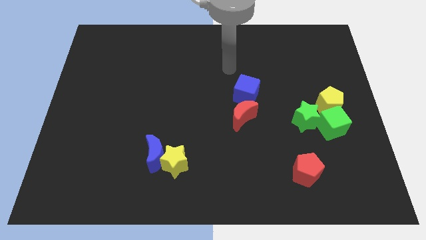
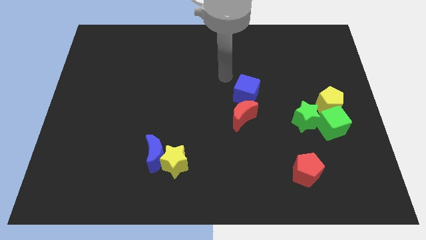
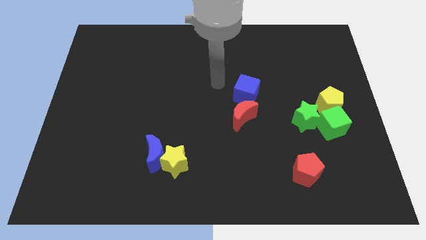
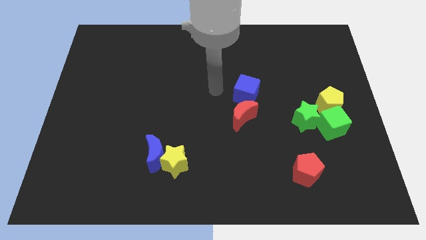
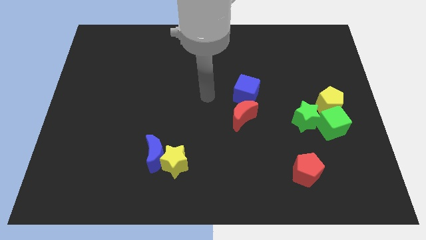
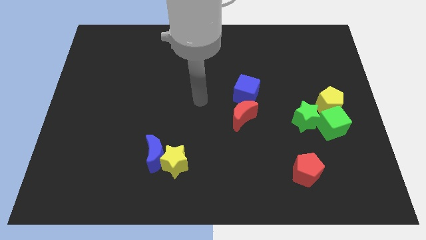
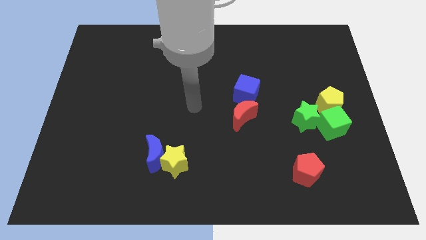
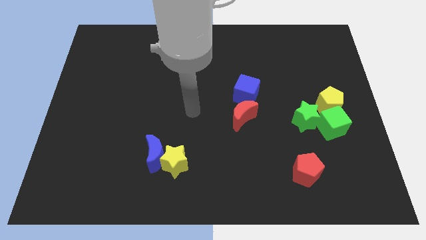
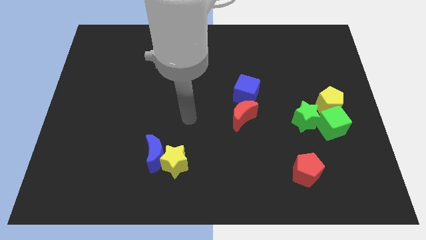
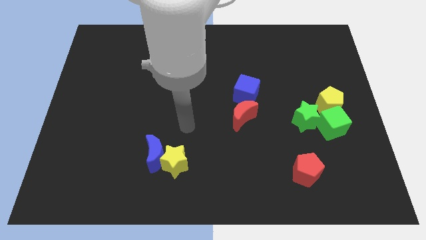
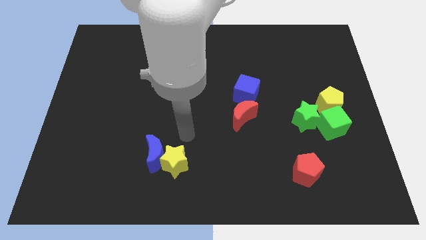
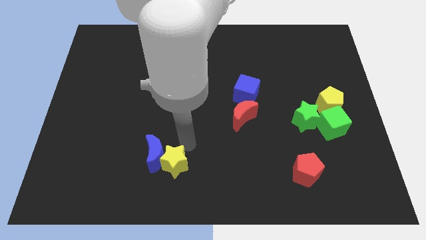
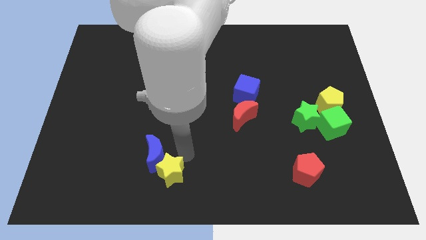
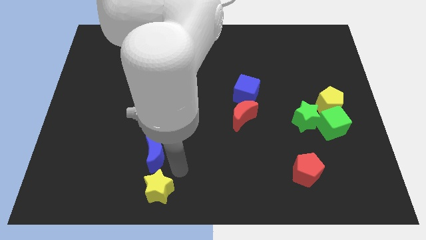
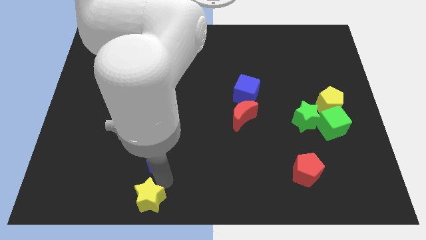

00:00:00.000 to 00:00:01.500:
pull the blue moon apart from the yellow star

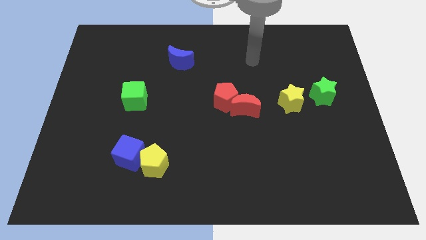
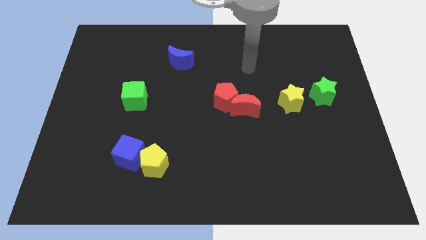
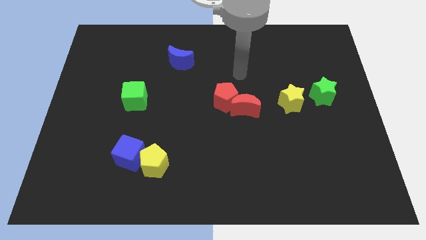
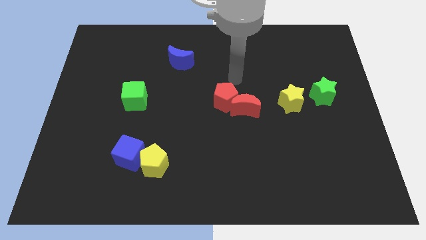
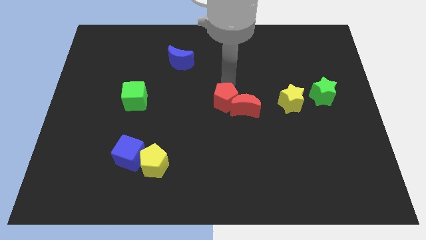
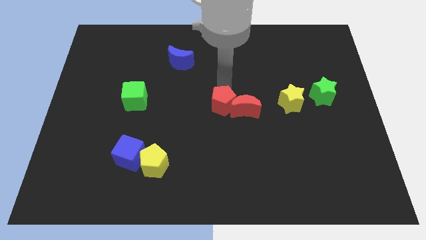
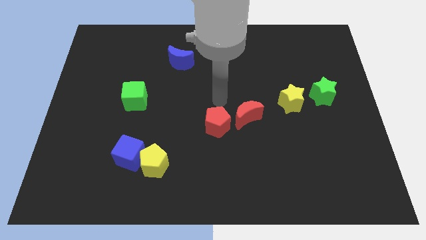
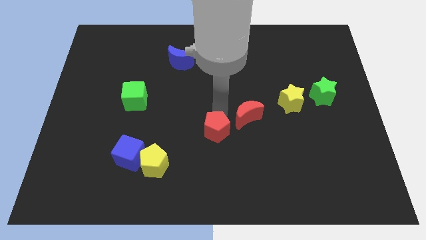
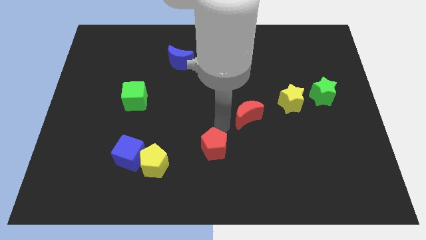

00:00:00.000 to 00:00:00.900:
move the red moon away from the red pentagon

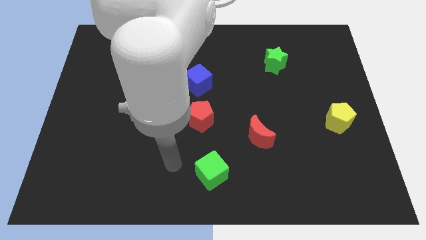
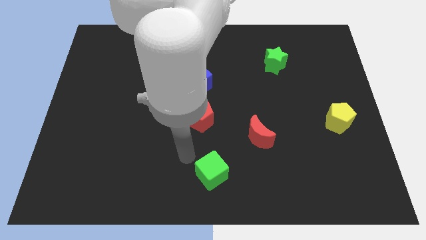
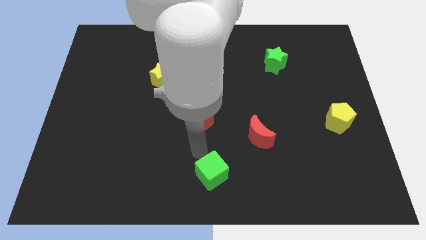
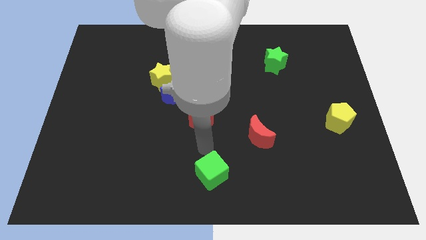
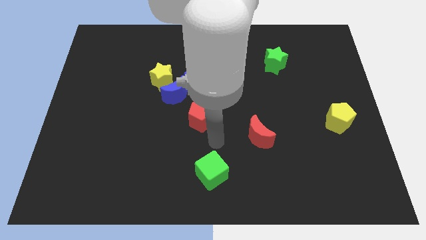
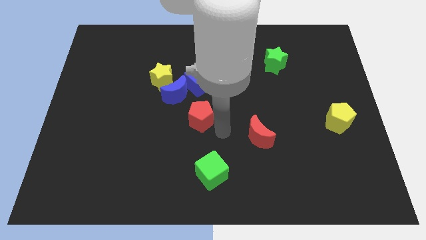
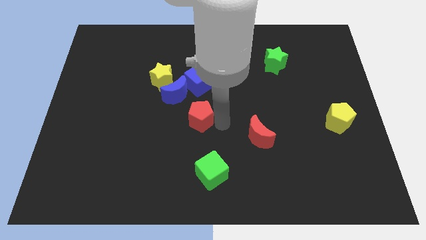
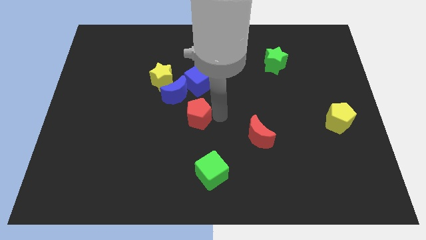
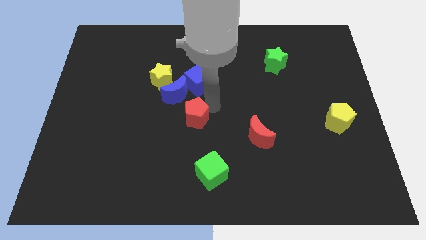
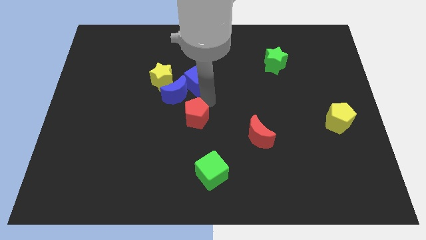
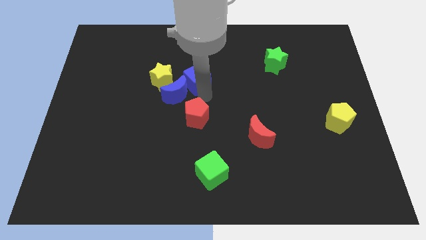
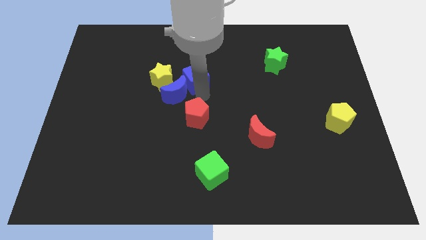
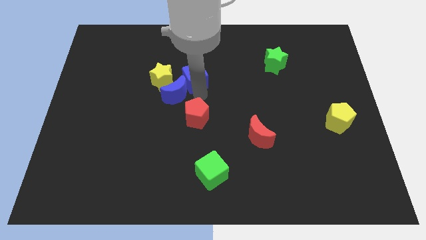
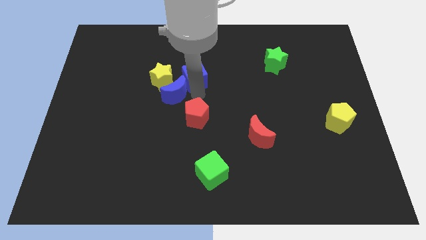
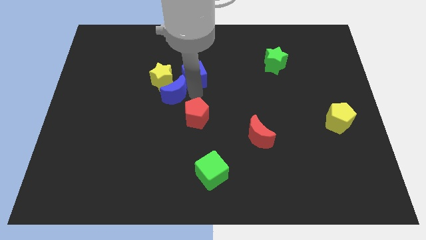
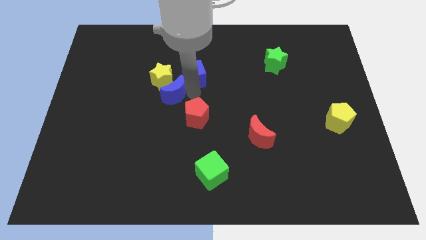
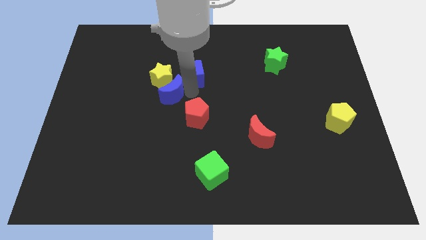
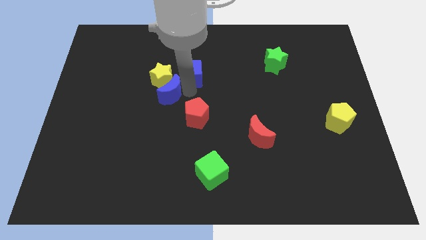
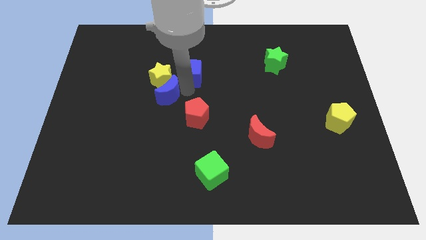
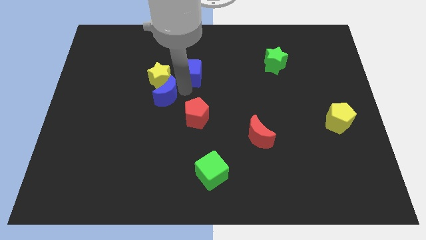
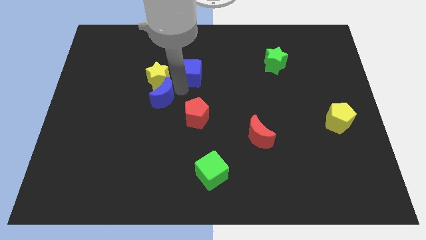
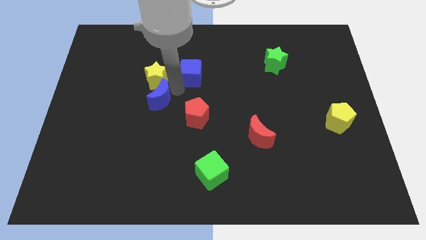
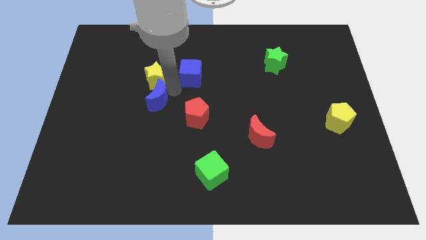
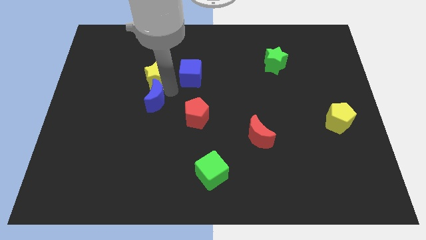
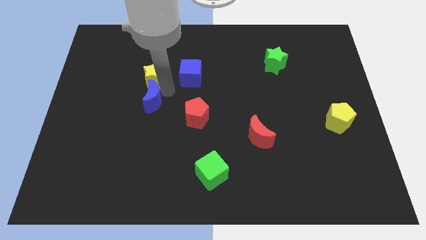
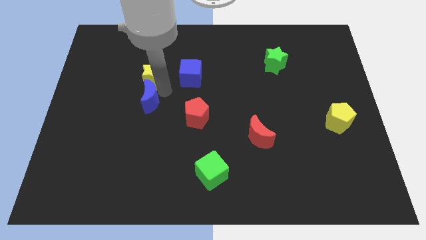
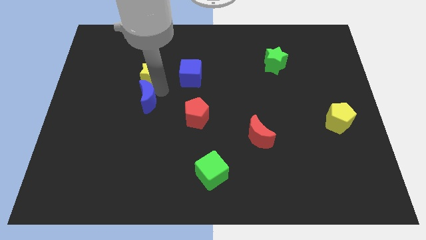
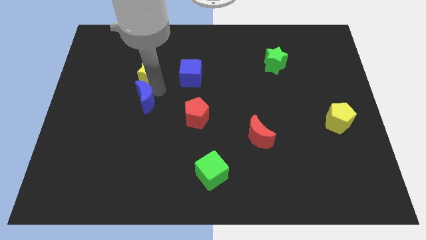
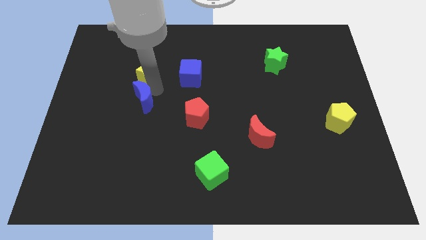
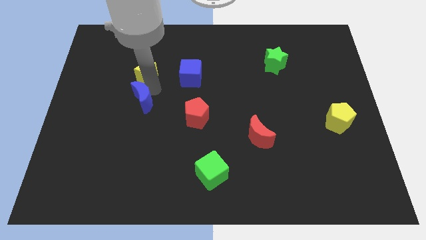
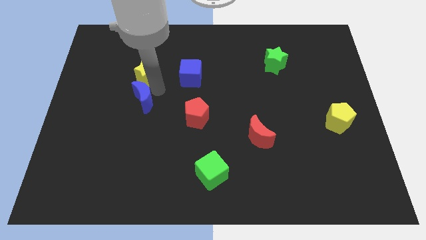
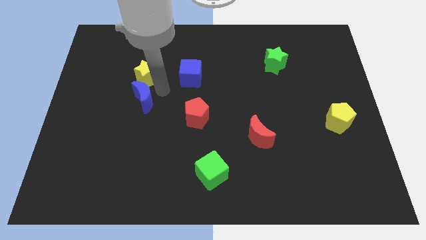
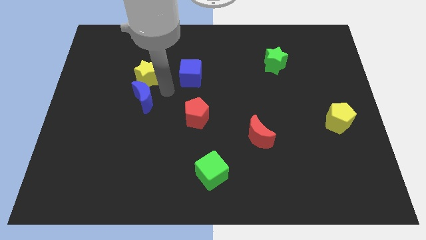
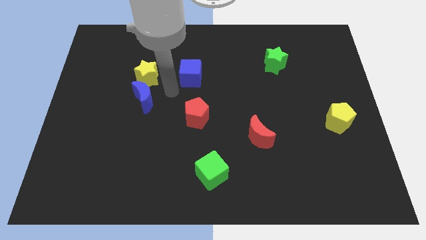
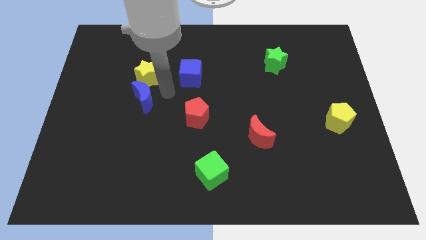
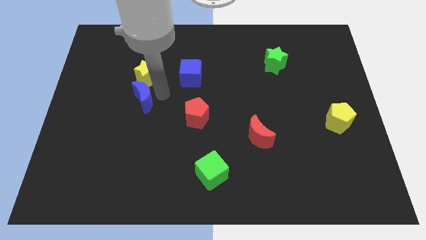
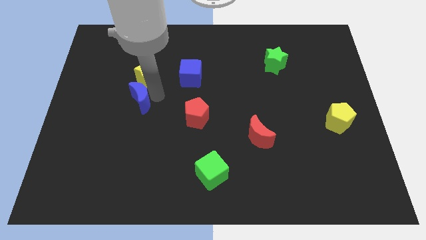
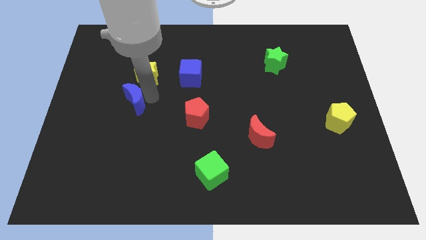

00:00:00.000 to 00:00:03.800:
move the blue moon away from the clump

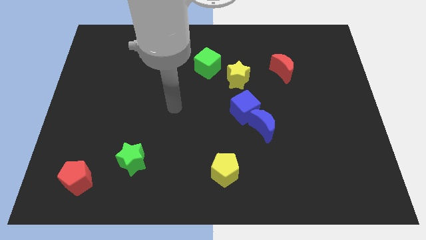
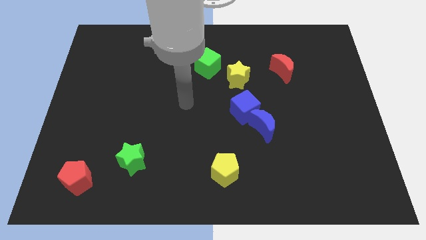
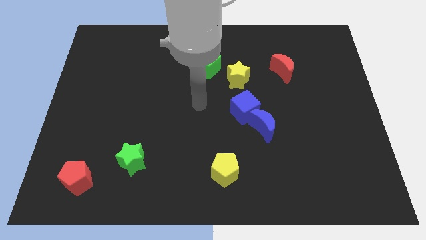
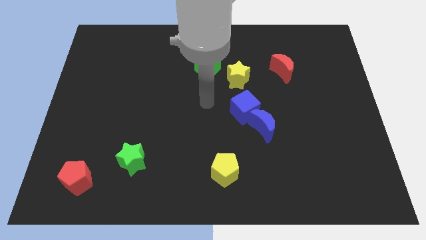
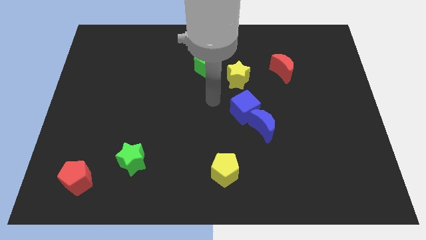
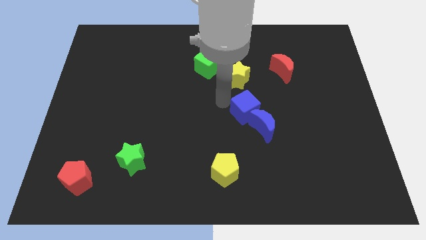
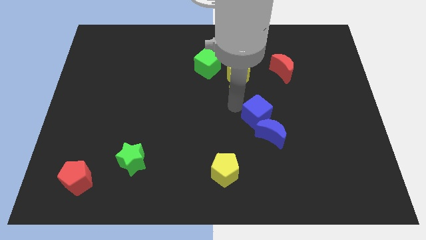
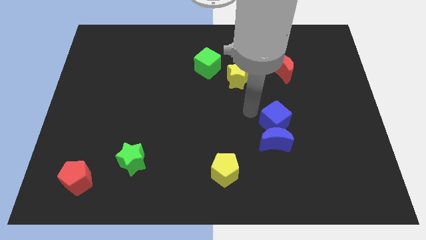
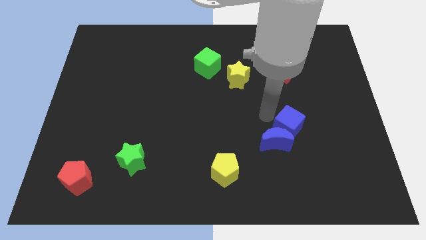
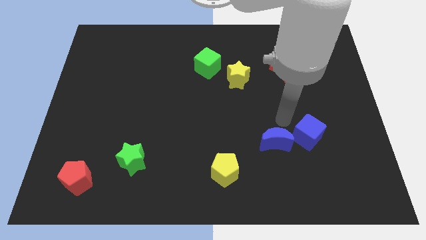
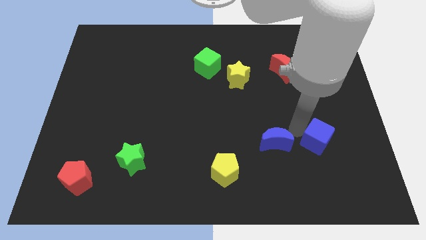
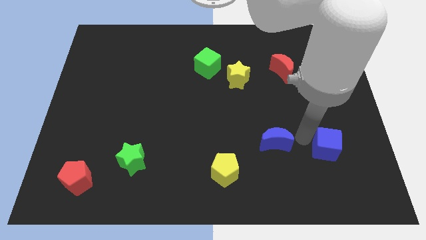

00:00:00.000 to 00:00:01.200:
pull the blue moon apart from the blue cube

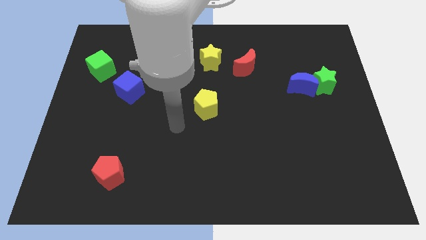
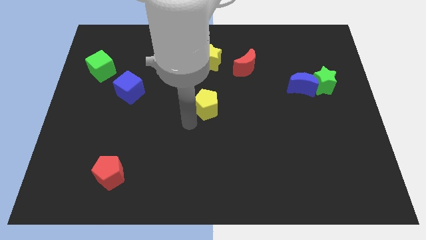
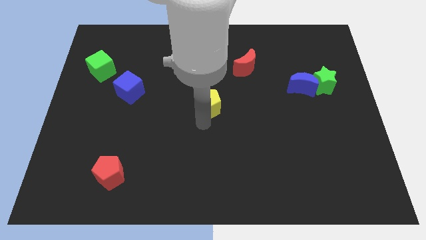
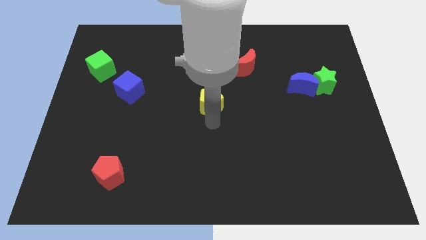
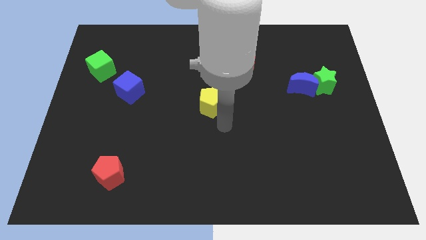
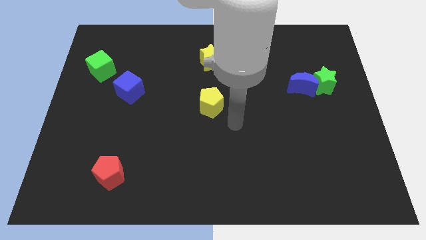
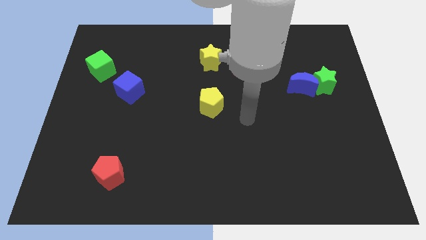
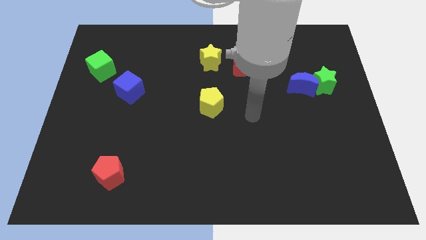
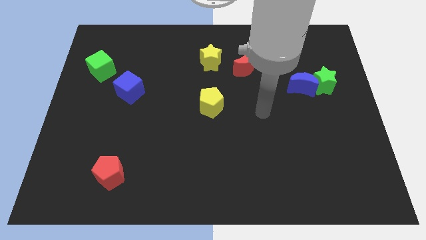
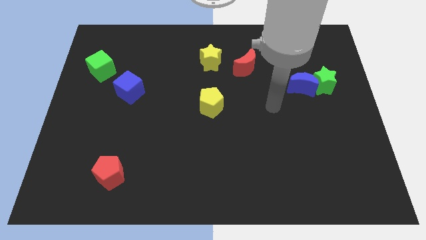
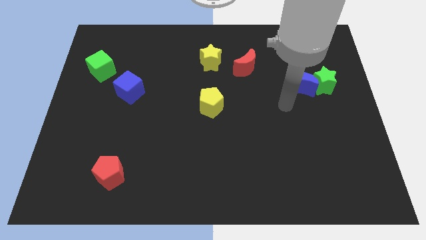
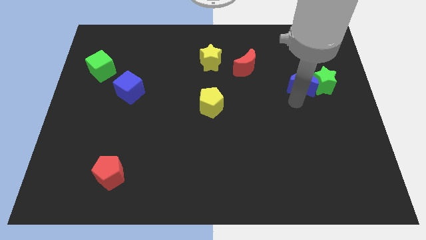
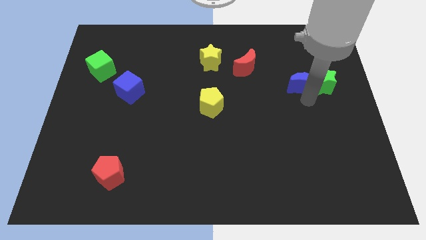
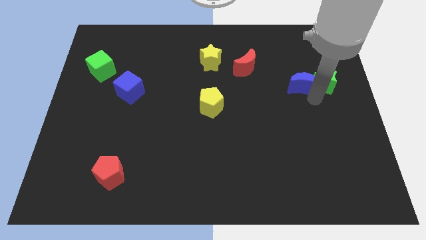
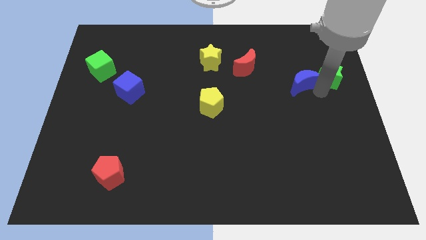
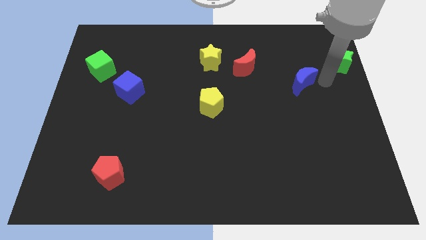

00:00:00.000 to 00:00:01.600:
pull the blue moon apart from the green star

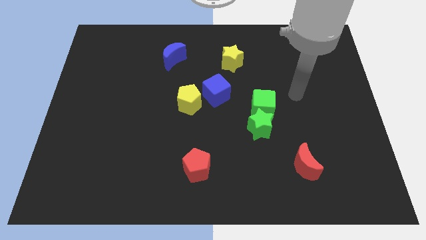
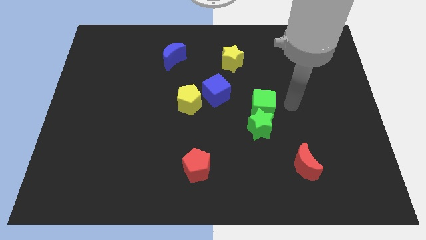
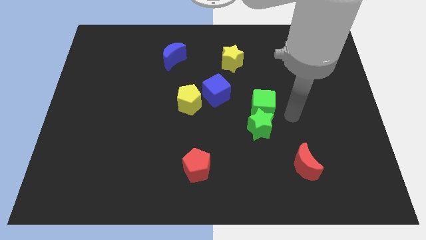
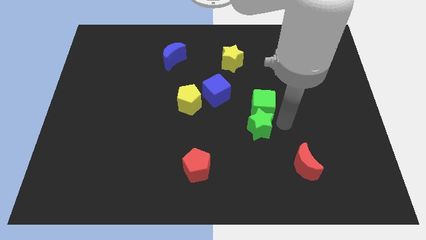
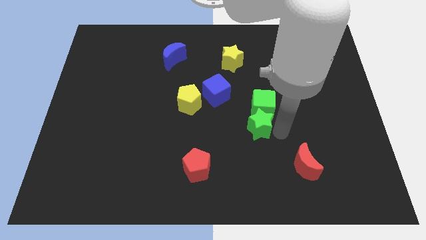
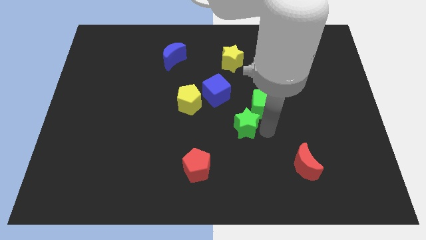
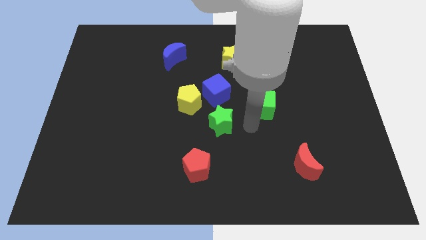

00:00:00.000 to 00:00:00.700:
separate the green cube from the green star
